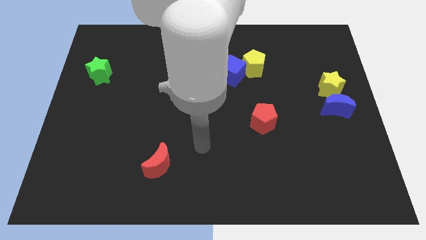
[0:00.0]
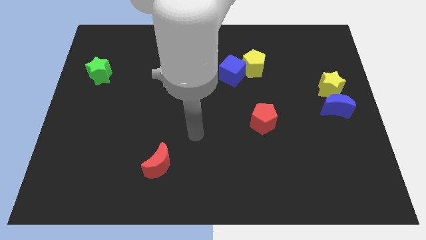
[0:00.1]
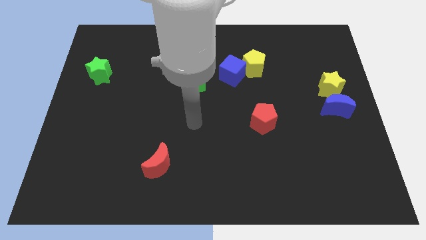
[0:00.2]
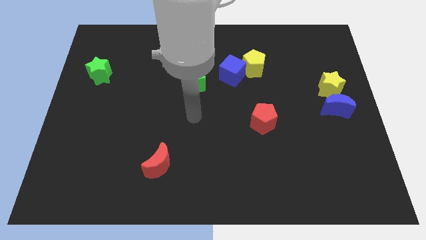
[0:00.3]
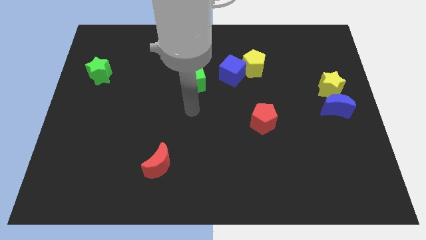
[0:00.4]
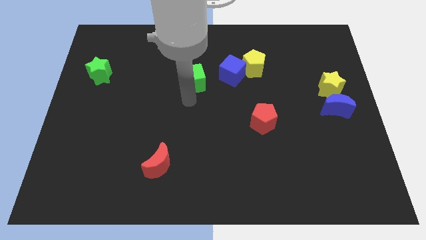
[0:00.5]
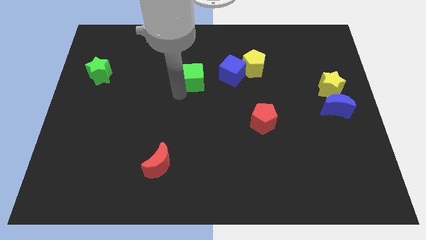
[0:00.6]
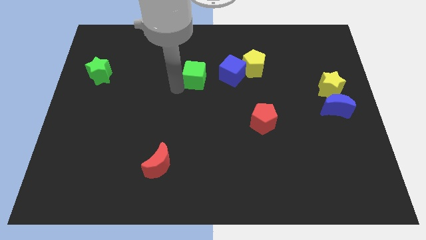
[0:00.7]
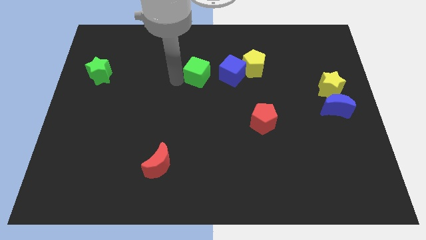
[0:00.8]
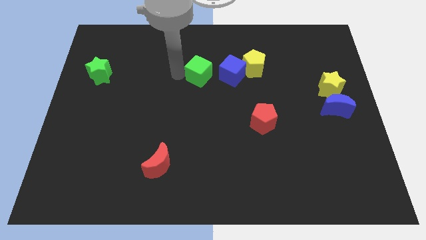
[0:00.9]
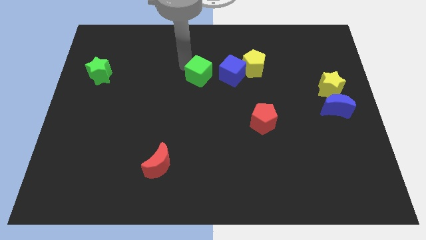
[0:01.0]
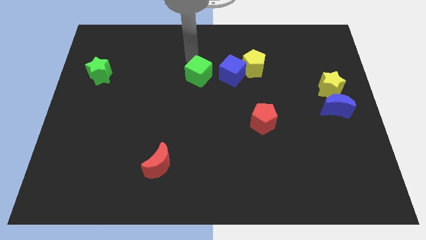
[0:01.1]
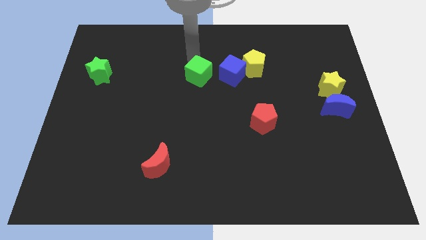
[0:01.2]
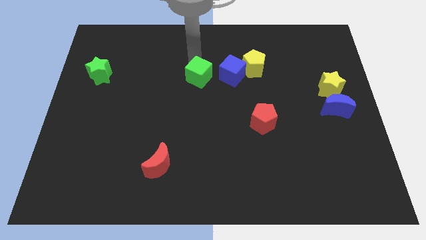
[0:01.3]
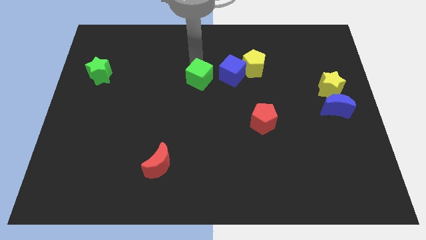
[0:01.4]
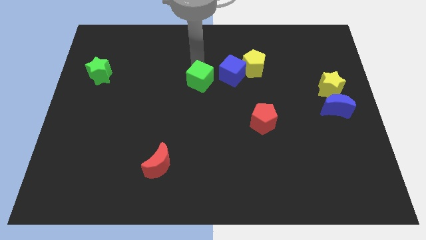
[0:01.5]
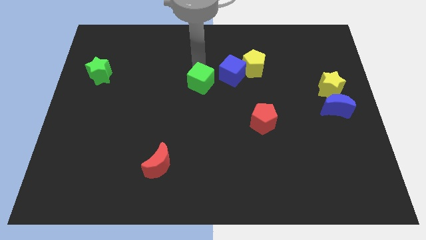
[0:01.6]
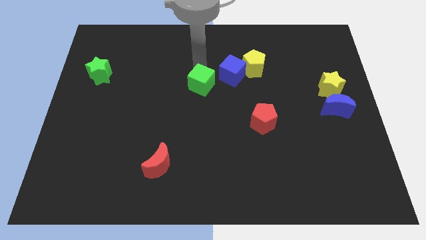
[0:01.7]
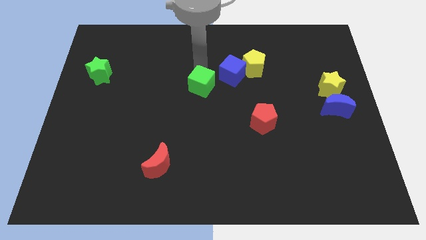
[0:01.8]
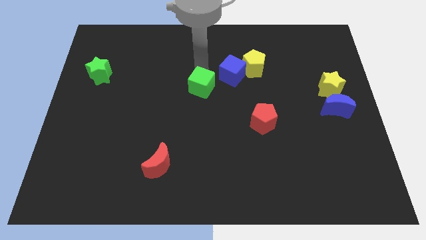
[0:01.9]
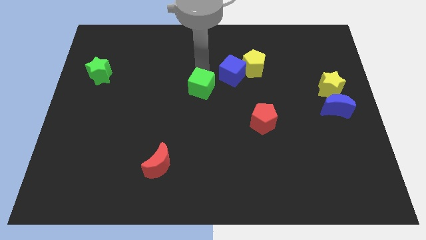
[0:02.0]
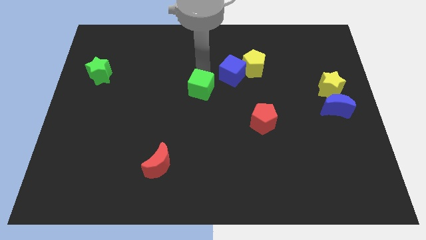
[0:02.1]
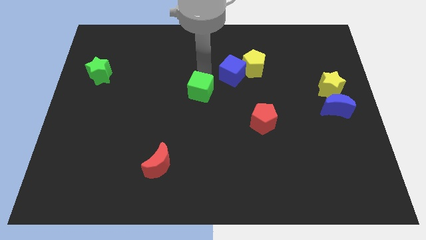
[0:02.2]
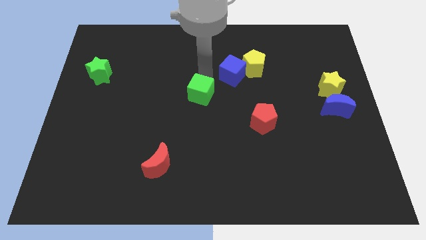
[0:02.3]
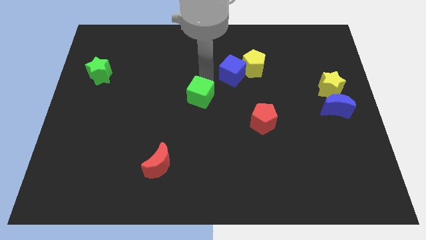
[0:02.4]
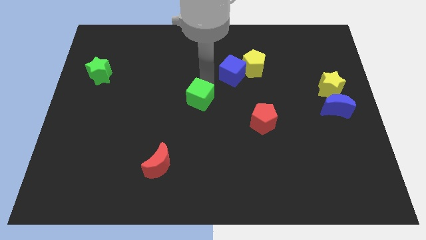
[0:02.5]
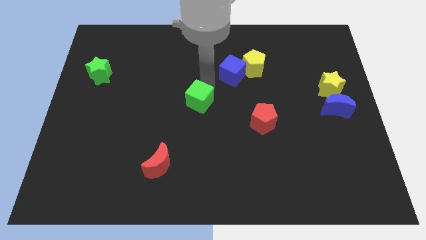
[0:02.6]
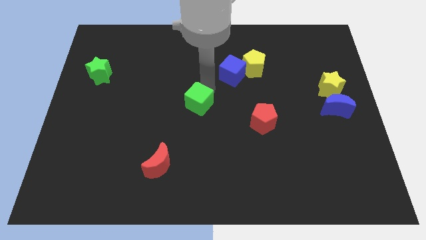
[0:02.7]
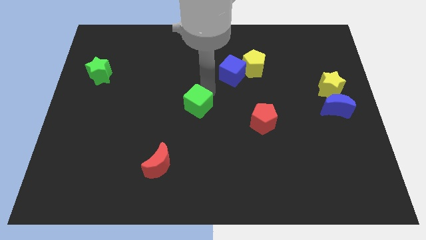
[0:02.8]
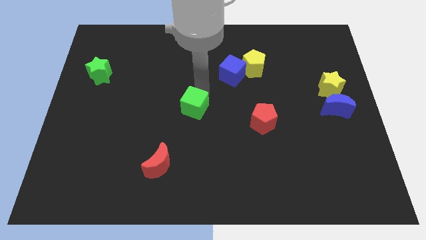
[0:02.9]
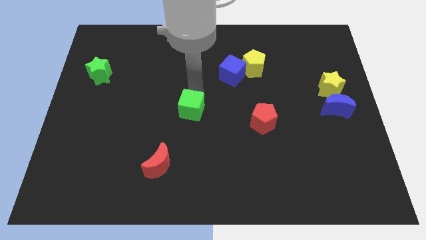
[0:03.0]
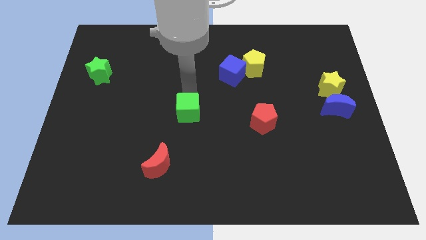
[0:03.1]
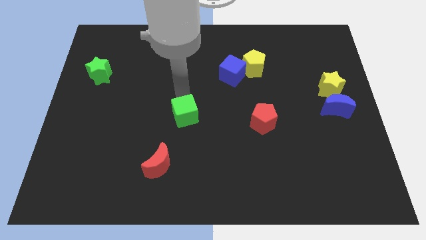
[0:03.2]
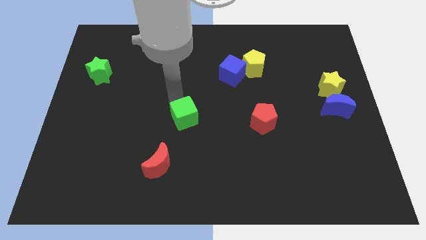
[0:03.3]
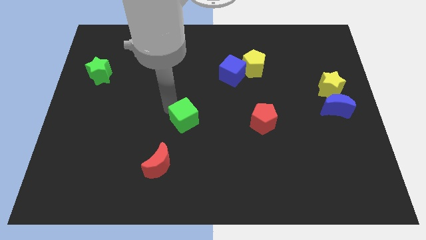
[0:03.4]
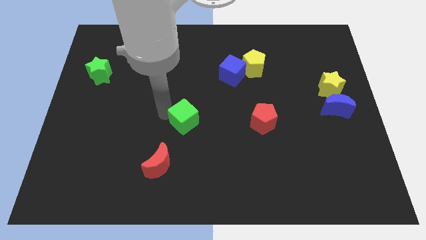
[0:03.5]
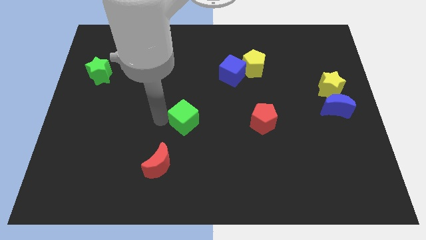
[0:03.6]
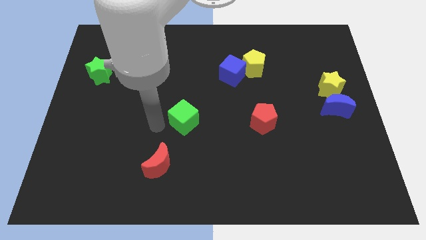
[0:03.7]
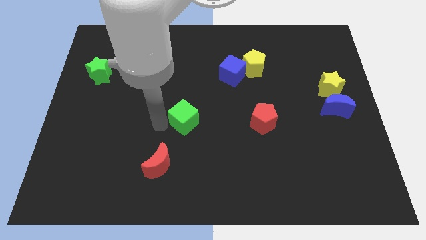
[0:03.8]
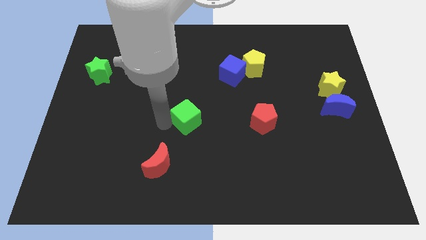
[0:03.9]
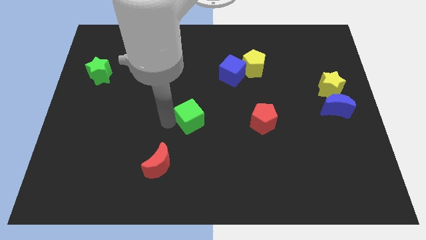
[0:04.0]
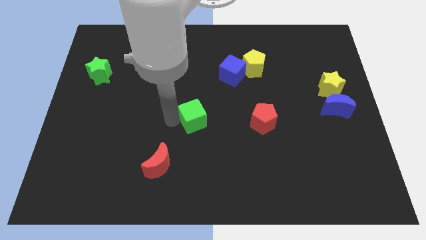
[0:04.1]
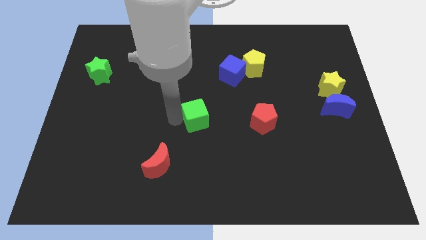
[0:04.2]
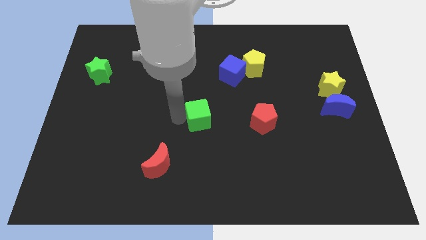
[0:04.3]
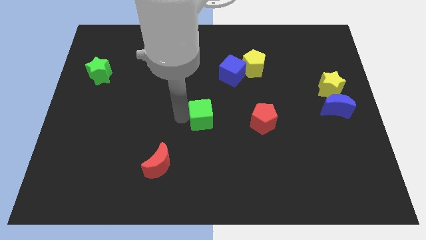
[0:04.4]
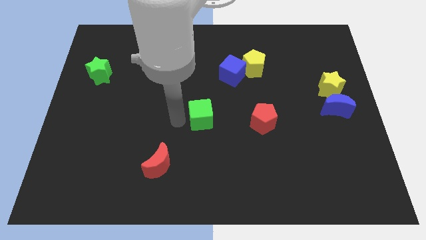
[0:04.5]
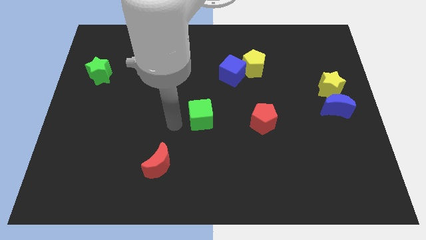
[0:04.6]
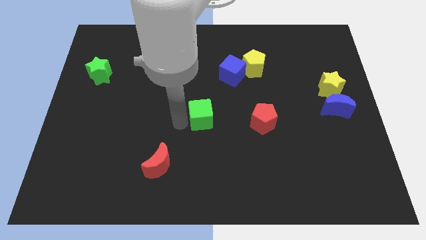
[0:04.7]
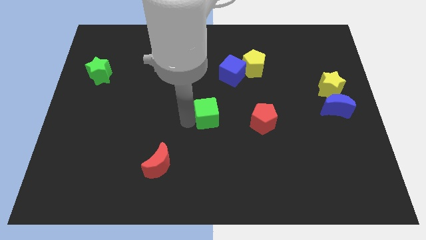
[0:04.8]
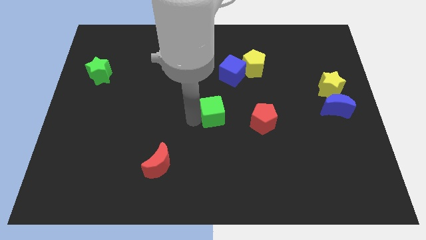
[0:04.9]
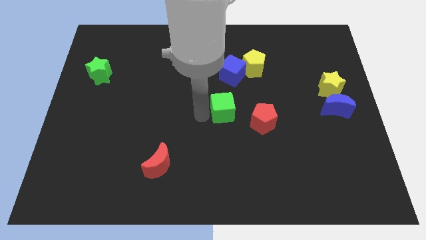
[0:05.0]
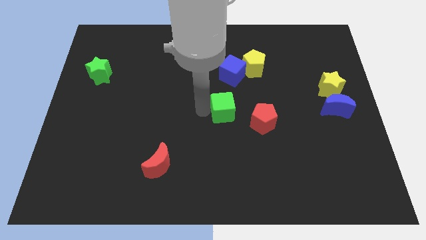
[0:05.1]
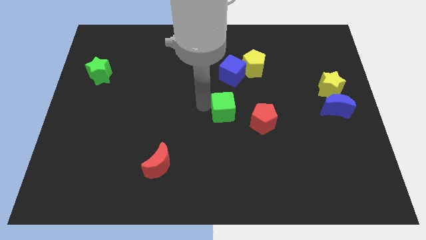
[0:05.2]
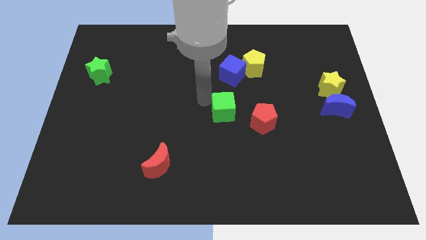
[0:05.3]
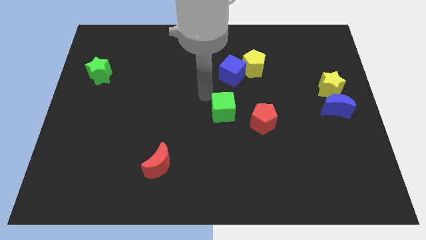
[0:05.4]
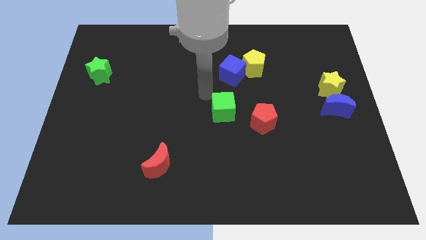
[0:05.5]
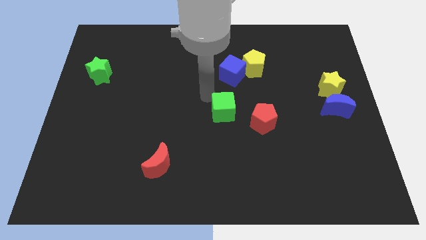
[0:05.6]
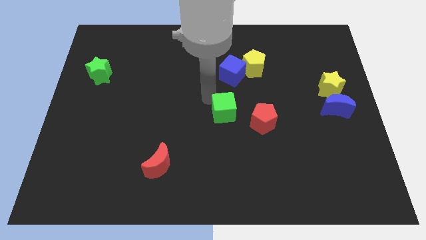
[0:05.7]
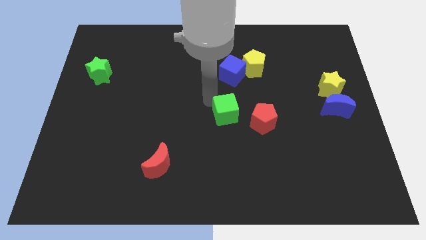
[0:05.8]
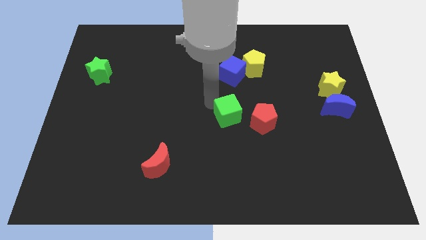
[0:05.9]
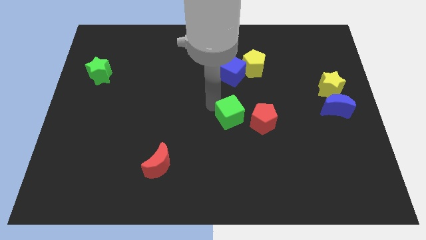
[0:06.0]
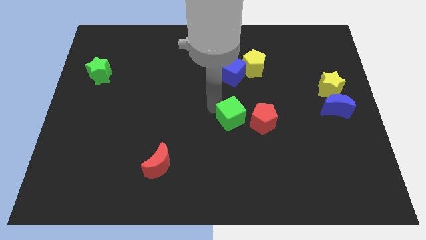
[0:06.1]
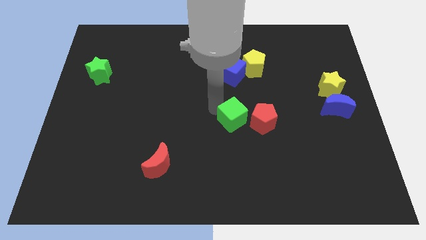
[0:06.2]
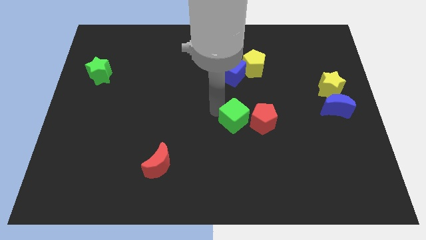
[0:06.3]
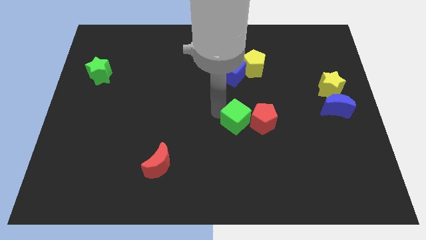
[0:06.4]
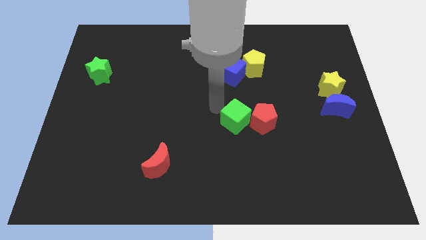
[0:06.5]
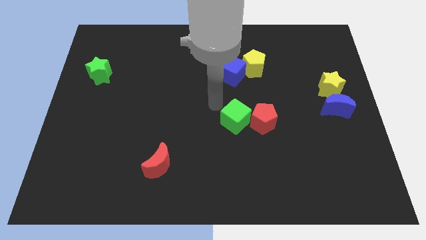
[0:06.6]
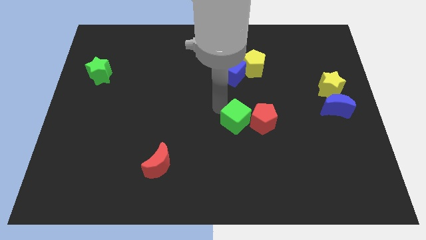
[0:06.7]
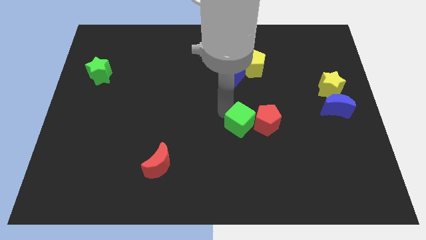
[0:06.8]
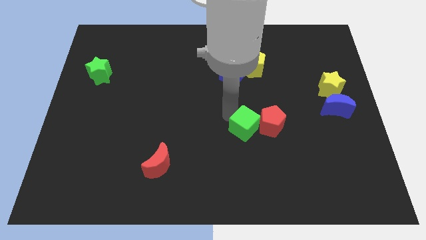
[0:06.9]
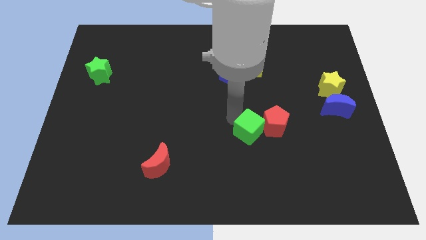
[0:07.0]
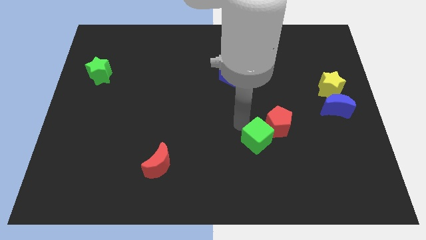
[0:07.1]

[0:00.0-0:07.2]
move the green cube down and right diagonally

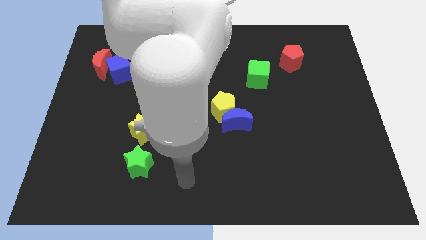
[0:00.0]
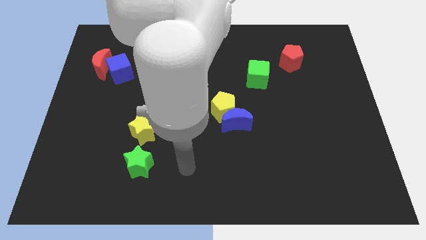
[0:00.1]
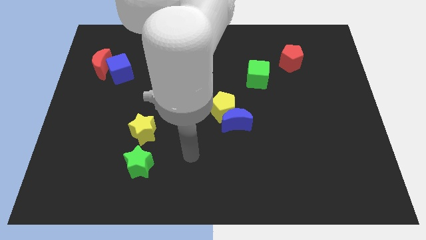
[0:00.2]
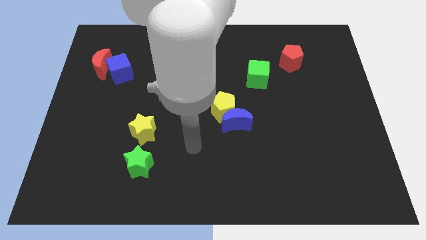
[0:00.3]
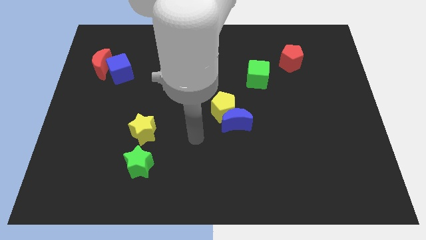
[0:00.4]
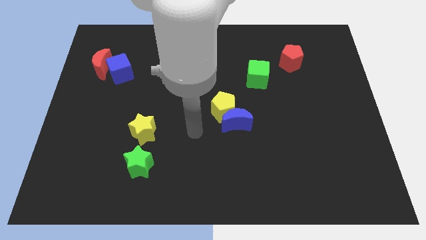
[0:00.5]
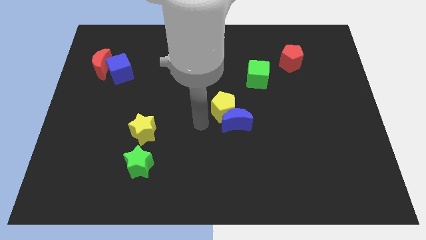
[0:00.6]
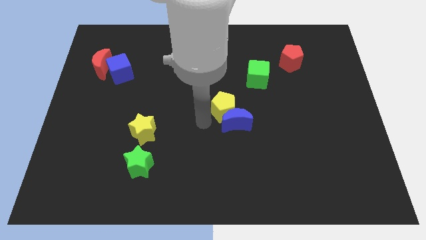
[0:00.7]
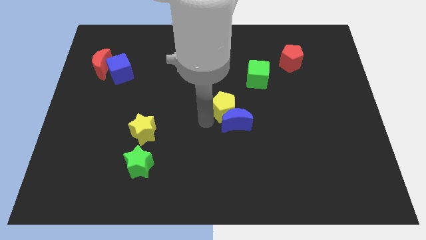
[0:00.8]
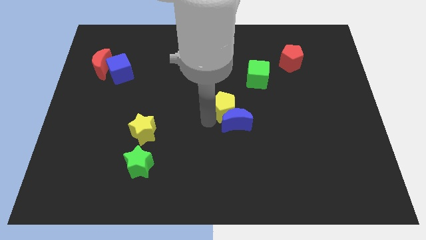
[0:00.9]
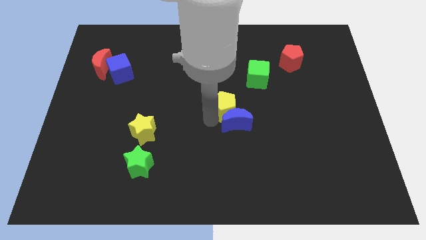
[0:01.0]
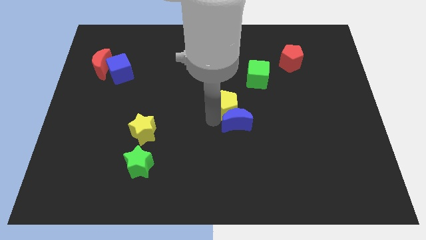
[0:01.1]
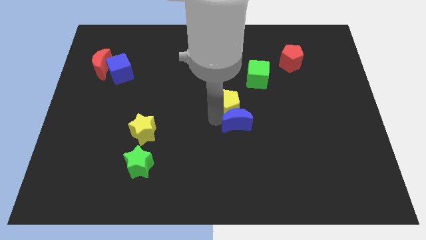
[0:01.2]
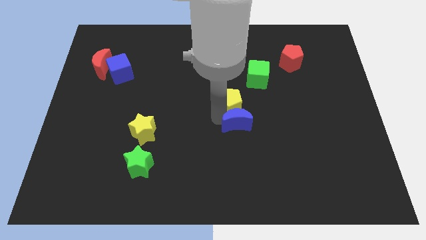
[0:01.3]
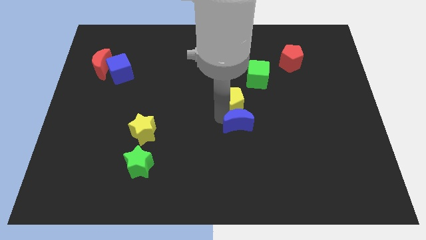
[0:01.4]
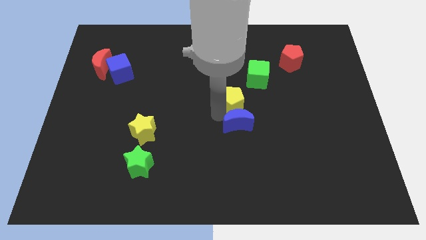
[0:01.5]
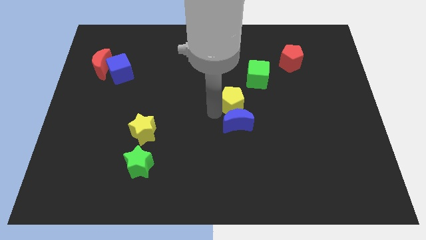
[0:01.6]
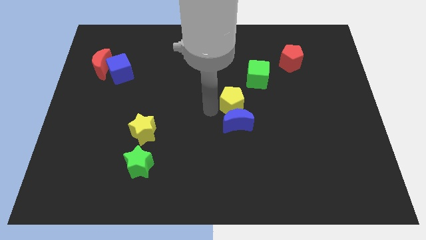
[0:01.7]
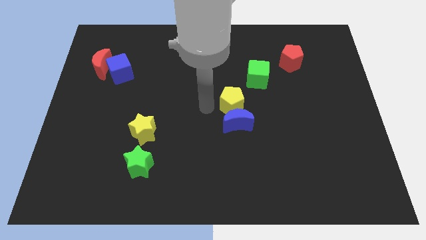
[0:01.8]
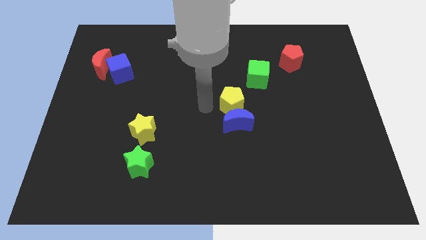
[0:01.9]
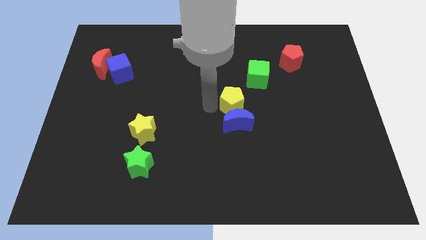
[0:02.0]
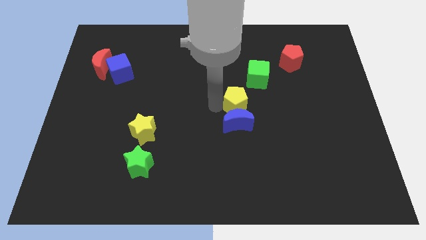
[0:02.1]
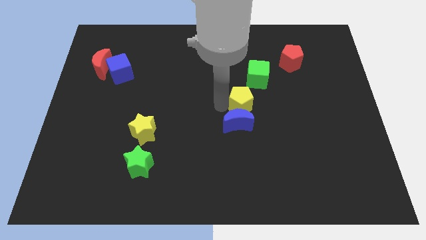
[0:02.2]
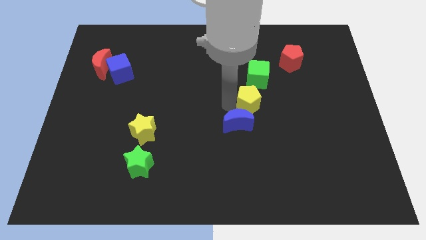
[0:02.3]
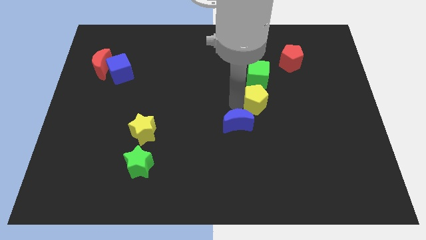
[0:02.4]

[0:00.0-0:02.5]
push the yellow pentagon to the right a little
